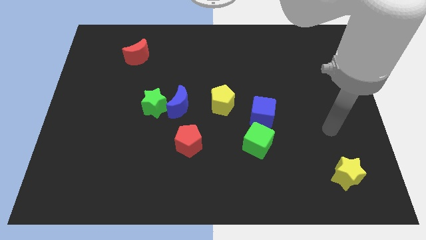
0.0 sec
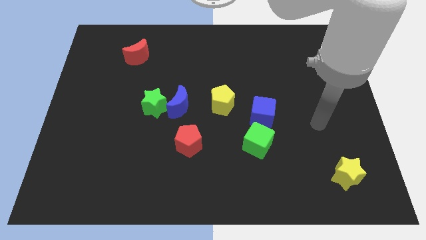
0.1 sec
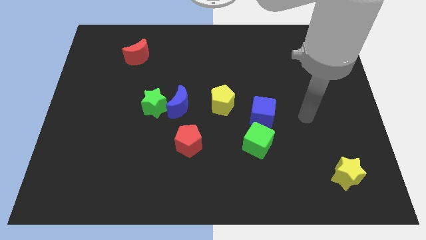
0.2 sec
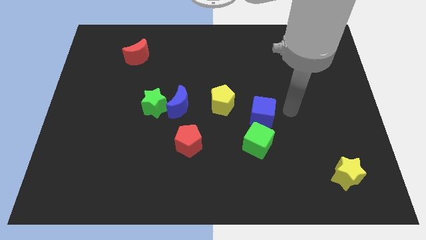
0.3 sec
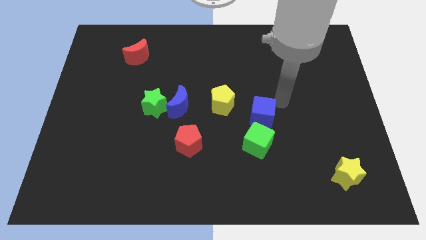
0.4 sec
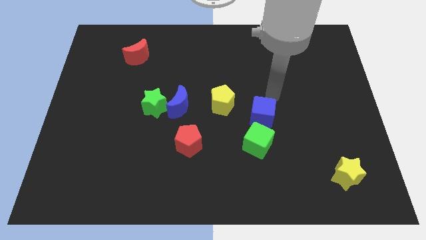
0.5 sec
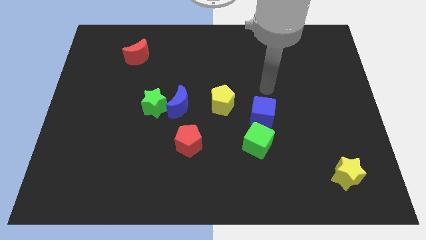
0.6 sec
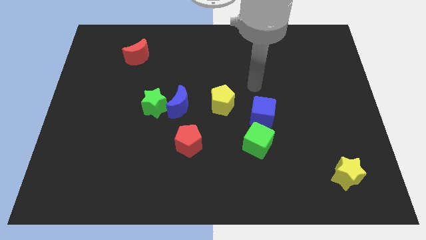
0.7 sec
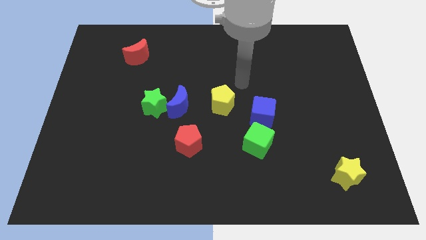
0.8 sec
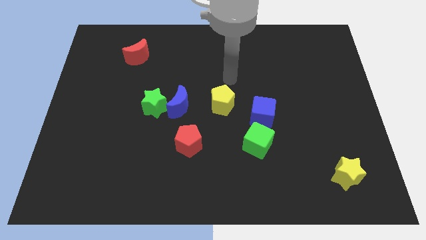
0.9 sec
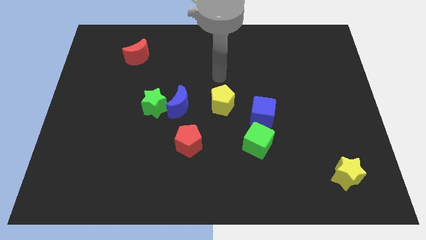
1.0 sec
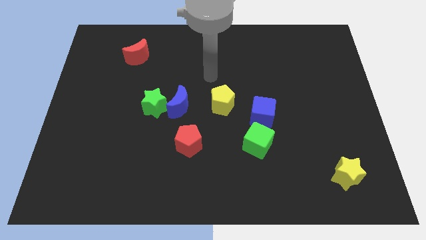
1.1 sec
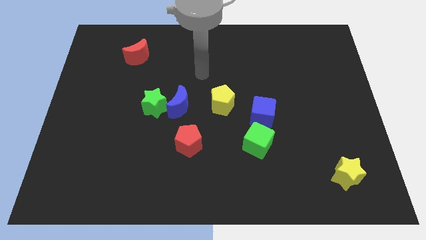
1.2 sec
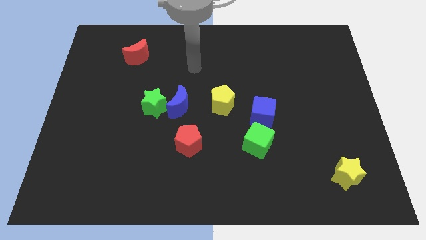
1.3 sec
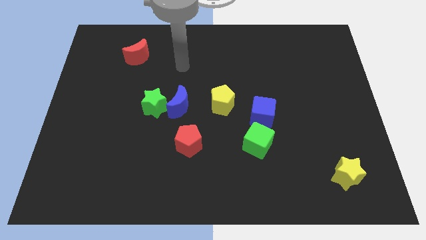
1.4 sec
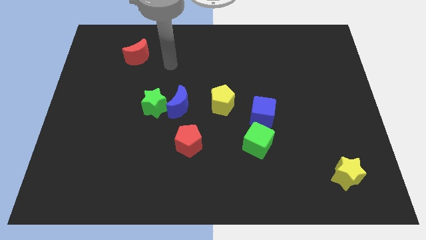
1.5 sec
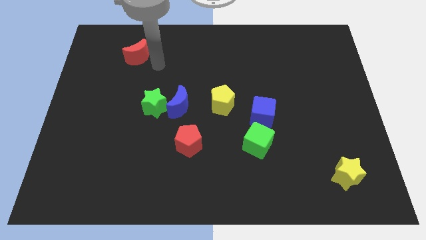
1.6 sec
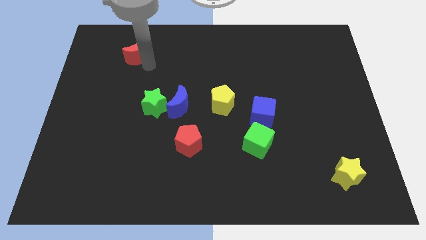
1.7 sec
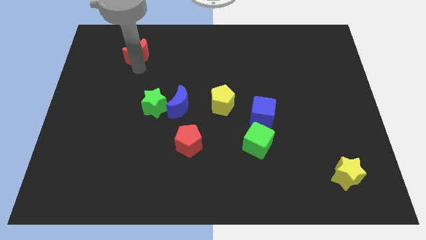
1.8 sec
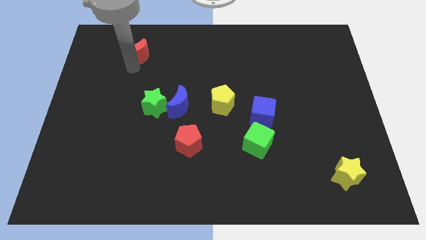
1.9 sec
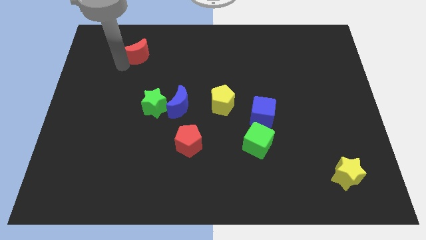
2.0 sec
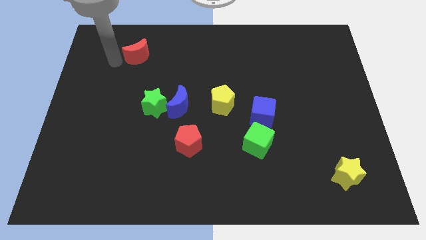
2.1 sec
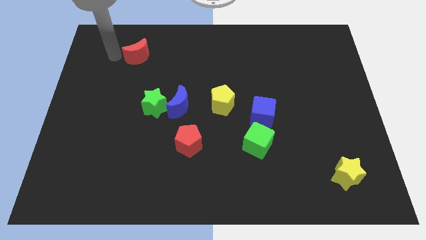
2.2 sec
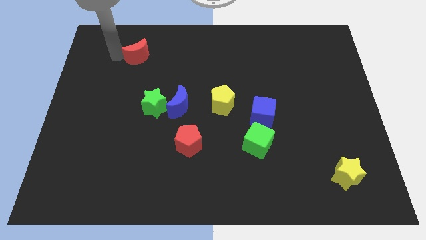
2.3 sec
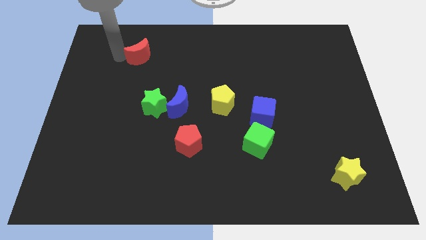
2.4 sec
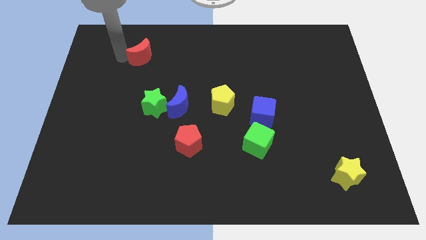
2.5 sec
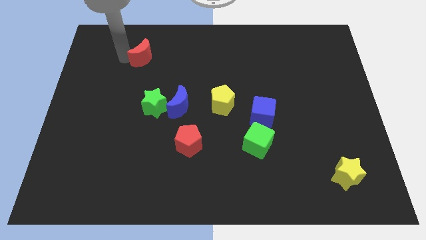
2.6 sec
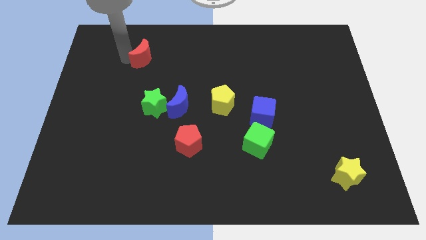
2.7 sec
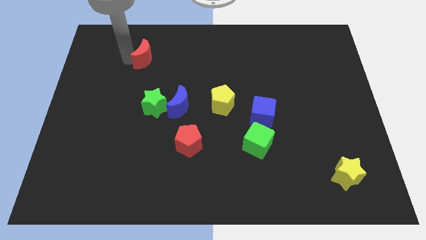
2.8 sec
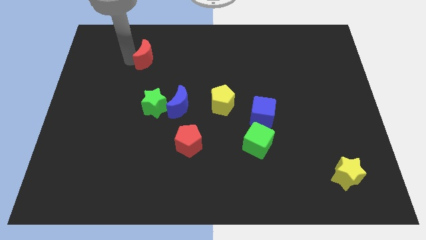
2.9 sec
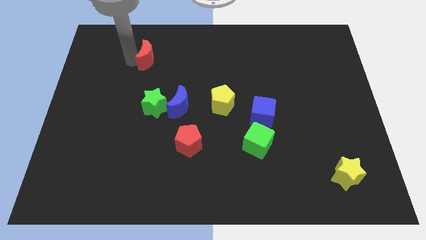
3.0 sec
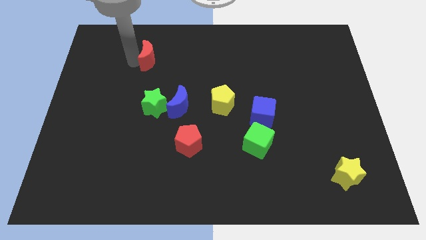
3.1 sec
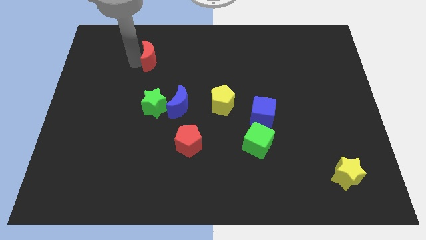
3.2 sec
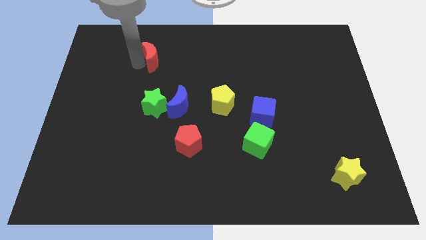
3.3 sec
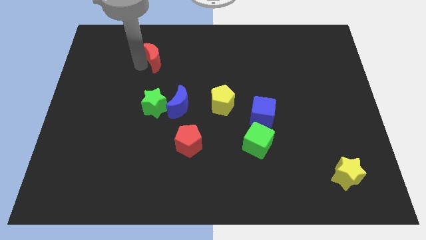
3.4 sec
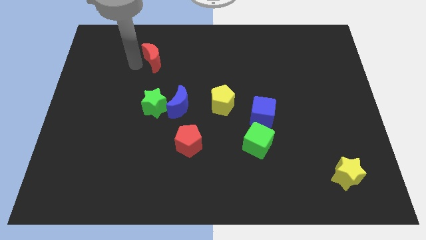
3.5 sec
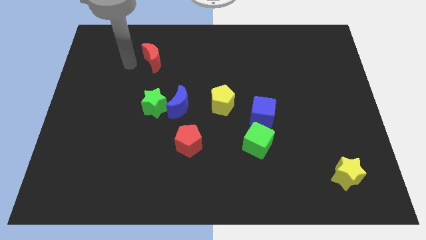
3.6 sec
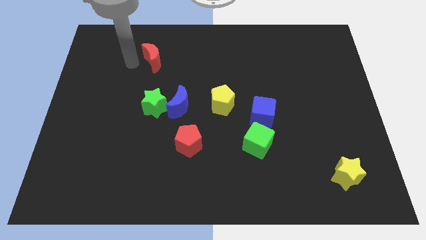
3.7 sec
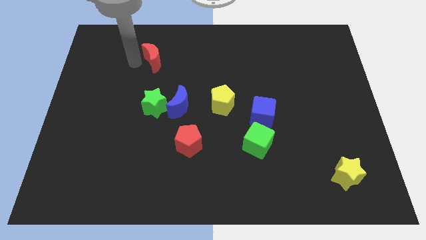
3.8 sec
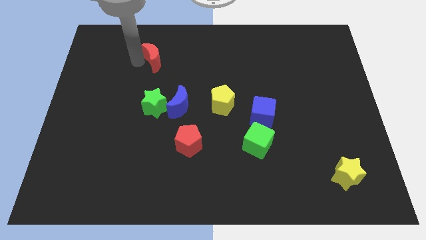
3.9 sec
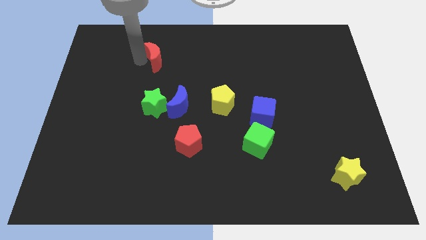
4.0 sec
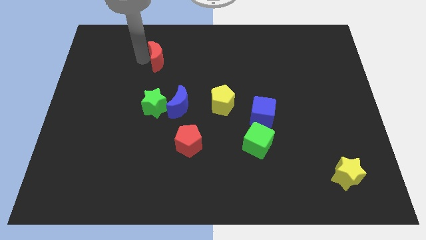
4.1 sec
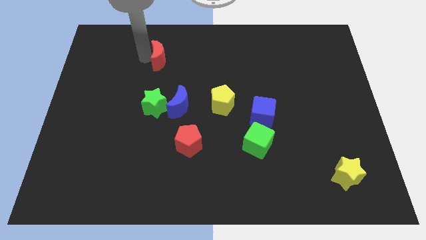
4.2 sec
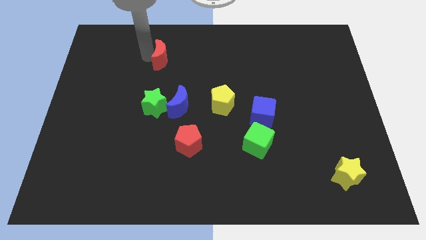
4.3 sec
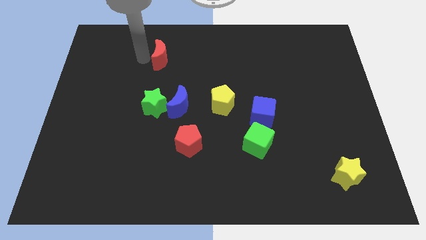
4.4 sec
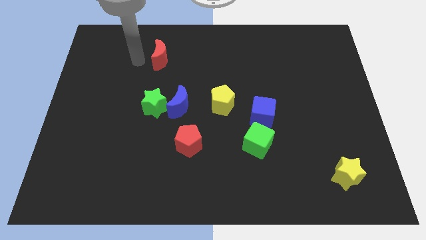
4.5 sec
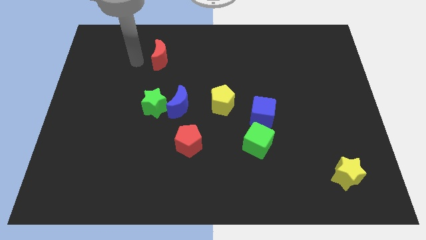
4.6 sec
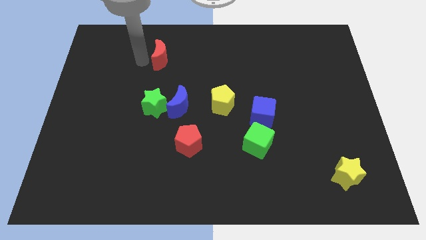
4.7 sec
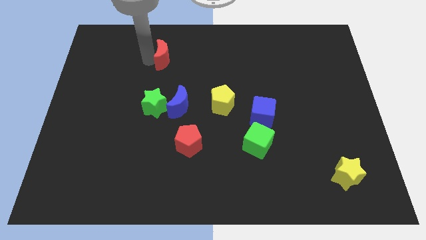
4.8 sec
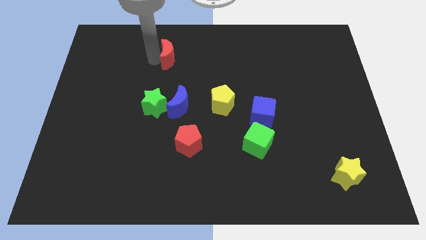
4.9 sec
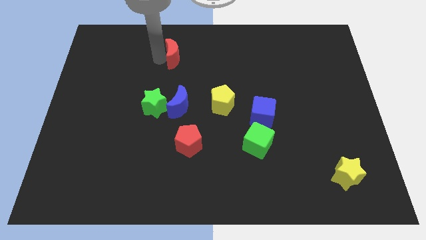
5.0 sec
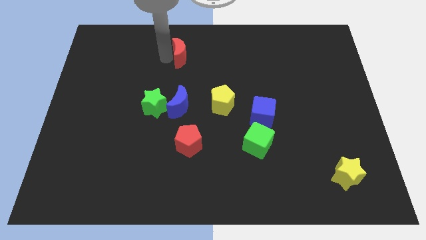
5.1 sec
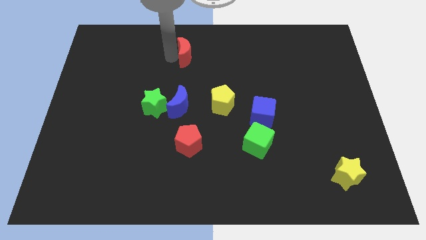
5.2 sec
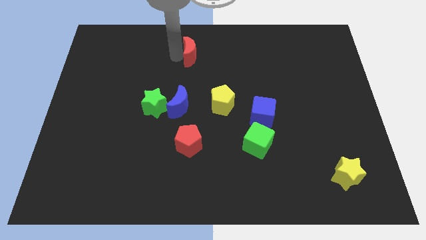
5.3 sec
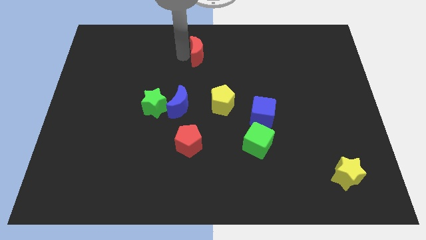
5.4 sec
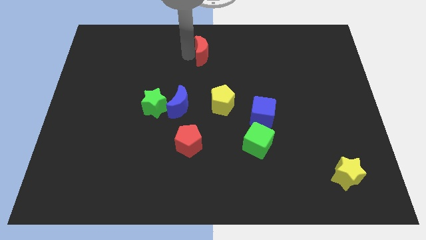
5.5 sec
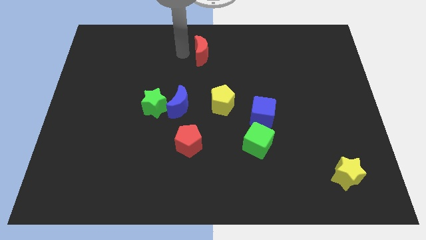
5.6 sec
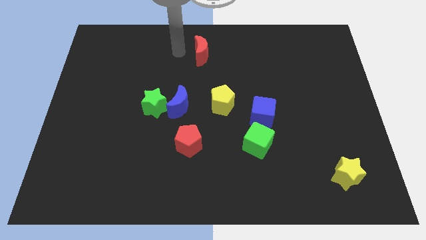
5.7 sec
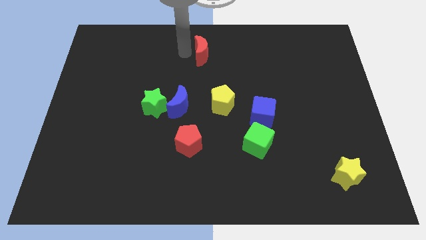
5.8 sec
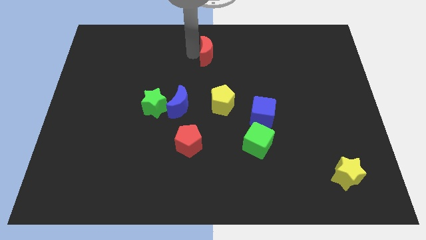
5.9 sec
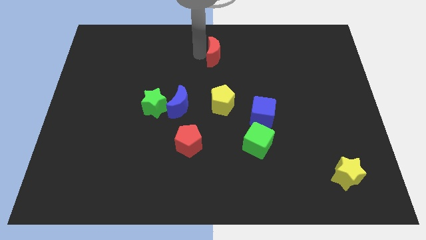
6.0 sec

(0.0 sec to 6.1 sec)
move the red moon to the right

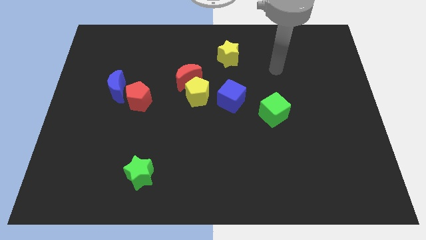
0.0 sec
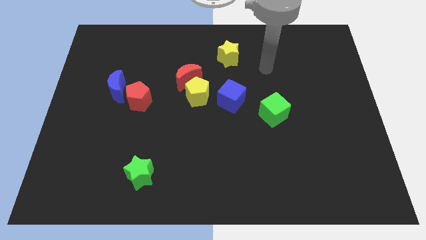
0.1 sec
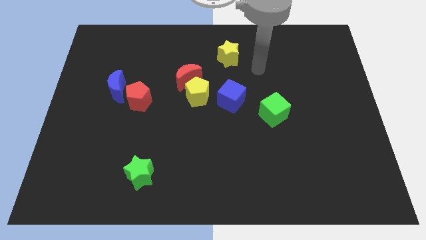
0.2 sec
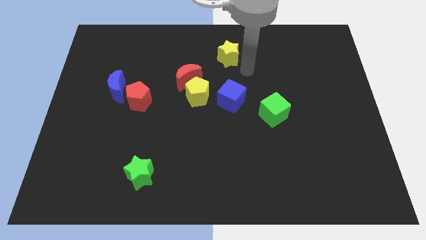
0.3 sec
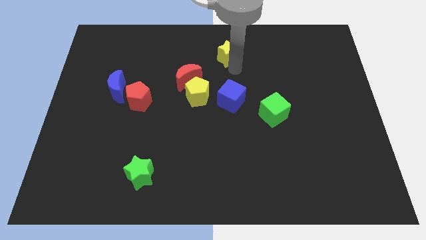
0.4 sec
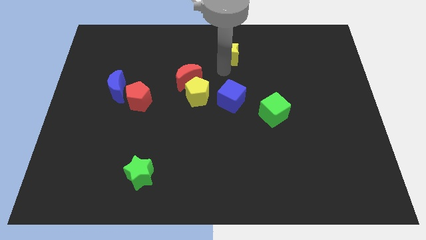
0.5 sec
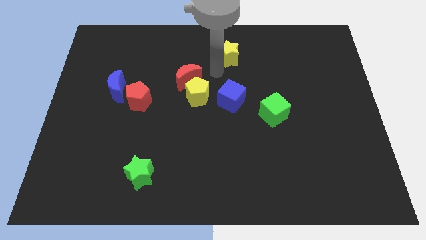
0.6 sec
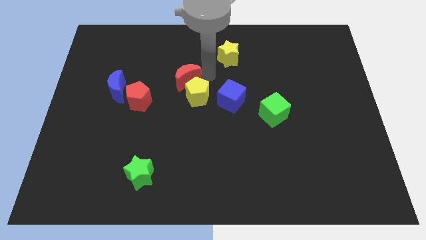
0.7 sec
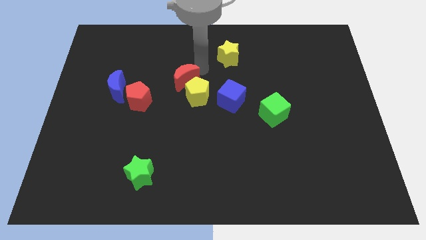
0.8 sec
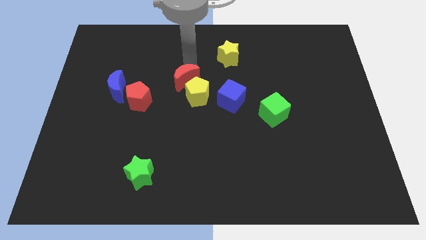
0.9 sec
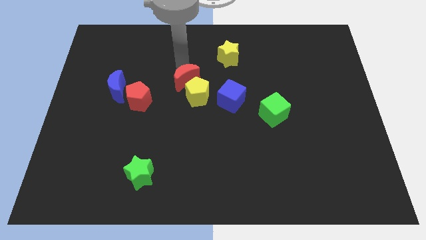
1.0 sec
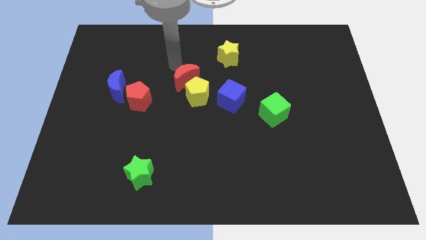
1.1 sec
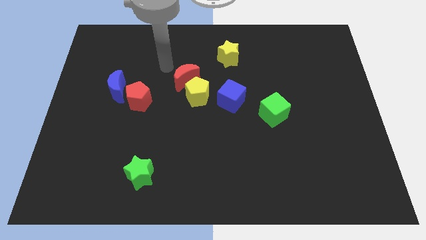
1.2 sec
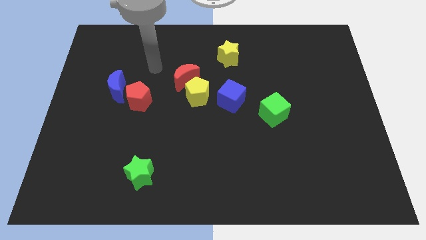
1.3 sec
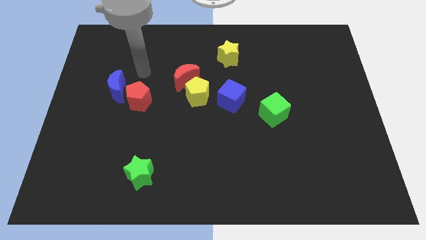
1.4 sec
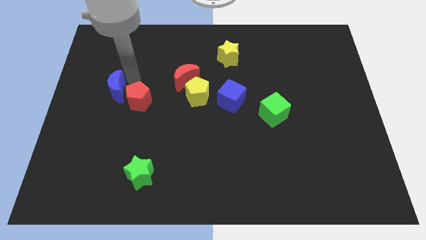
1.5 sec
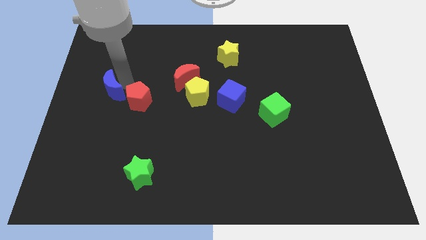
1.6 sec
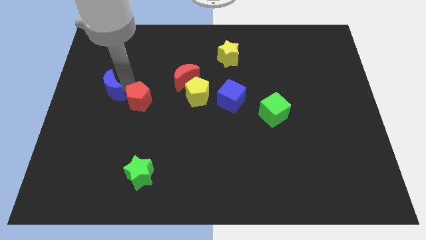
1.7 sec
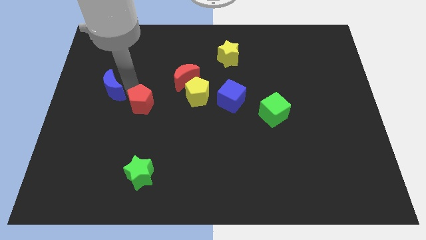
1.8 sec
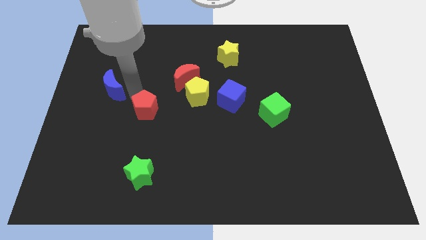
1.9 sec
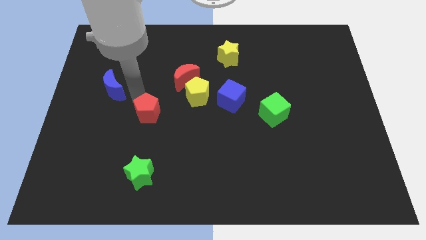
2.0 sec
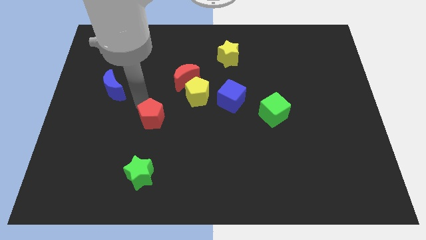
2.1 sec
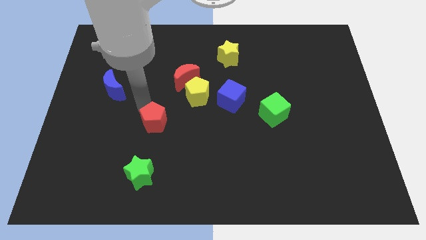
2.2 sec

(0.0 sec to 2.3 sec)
slide the red pentagon slightly down and to the right
